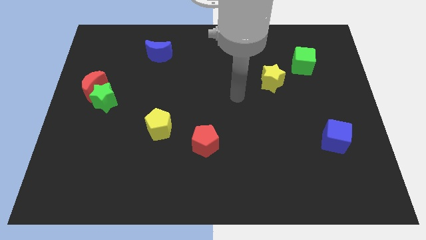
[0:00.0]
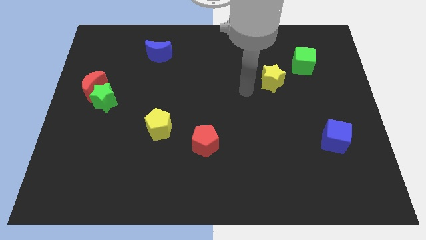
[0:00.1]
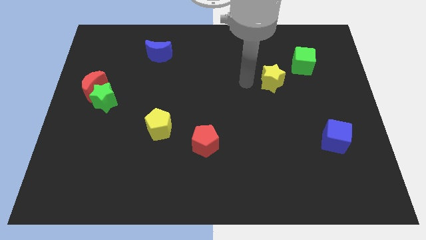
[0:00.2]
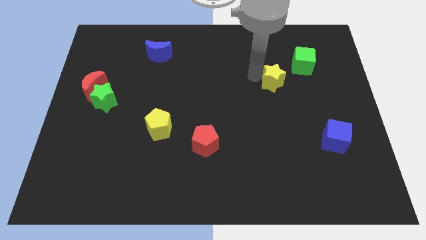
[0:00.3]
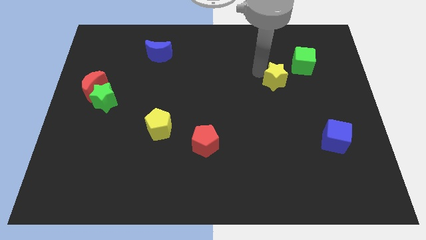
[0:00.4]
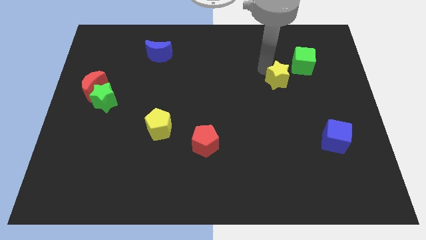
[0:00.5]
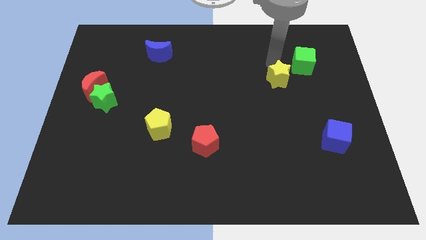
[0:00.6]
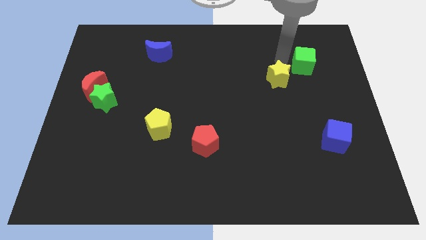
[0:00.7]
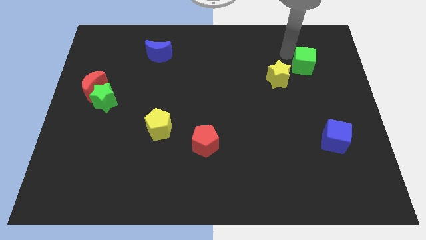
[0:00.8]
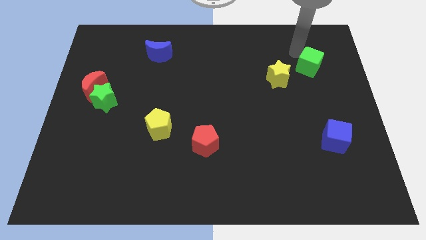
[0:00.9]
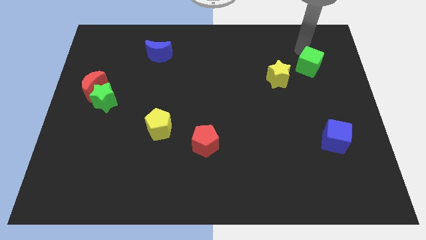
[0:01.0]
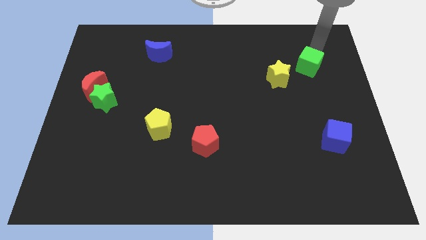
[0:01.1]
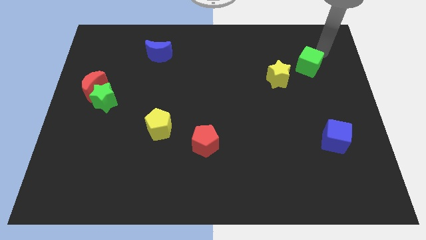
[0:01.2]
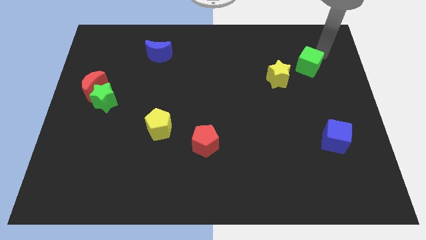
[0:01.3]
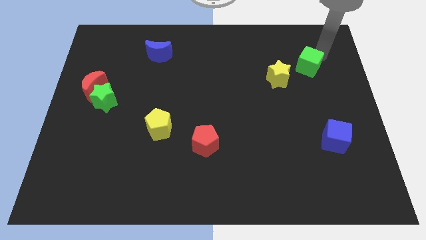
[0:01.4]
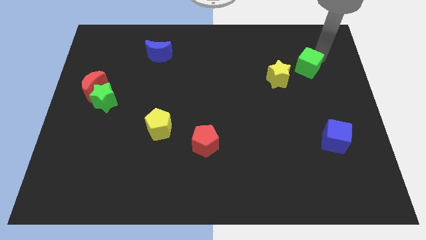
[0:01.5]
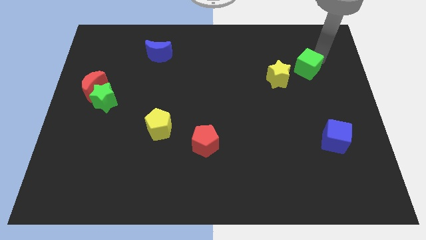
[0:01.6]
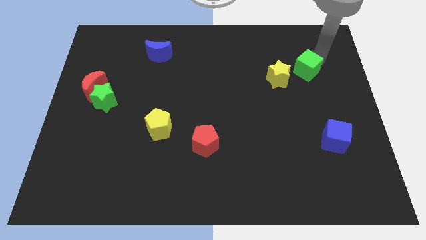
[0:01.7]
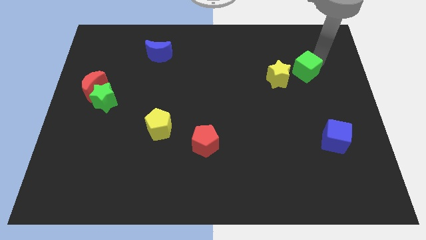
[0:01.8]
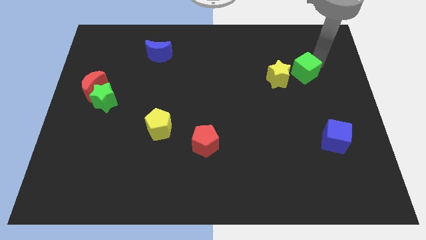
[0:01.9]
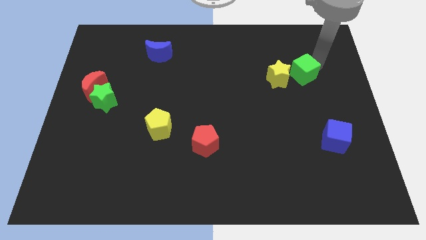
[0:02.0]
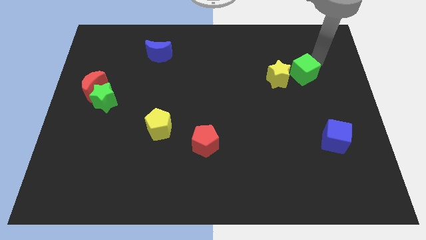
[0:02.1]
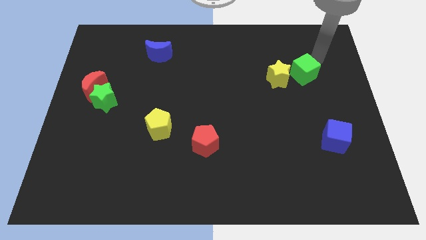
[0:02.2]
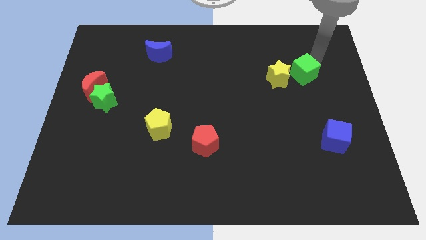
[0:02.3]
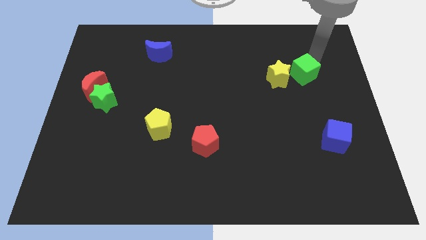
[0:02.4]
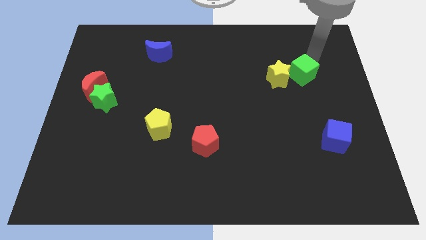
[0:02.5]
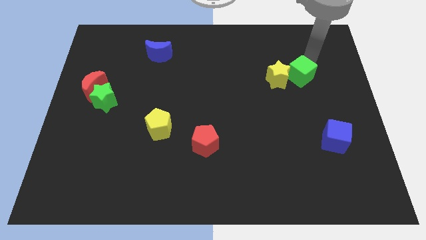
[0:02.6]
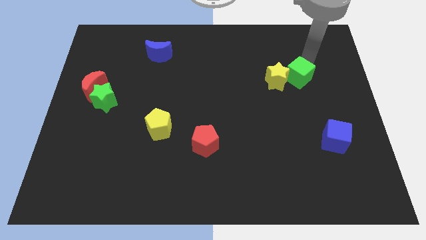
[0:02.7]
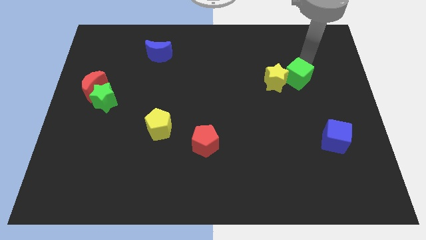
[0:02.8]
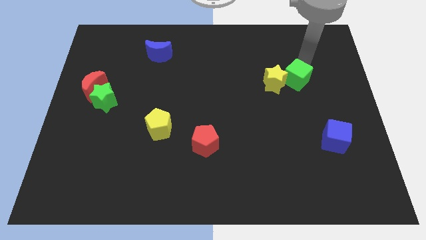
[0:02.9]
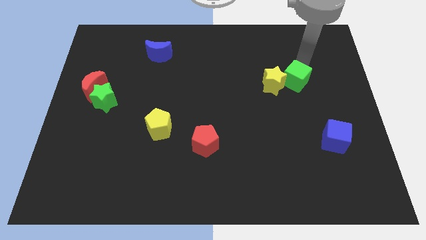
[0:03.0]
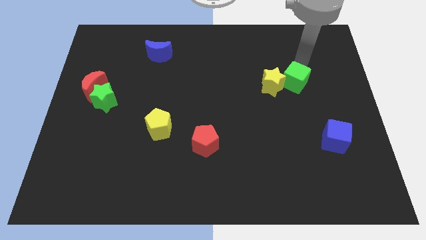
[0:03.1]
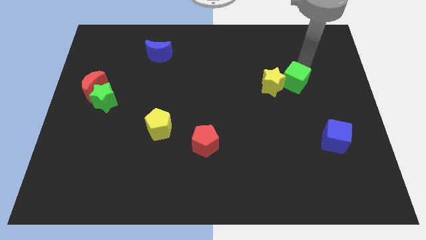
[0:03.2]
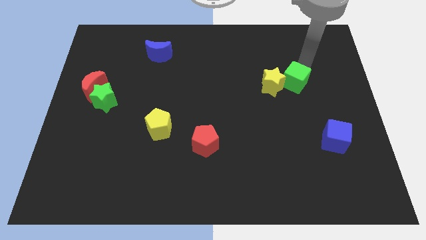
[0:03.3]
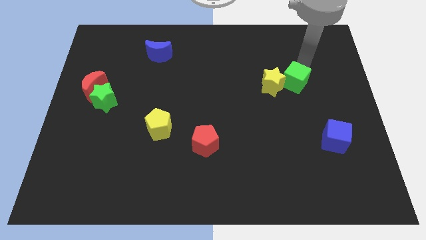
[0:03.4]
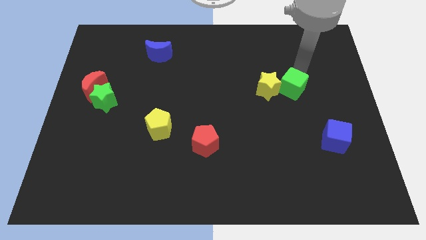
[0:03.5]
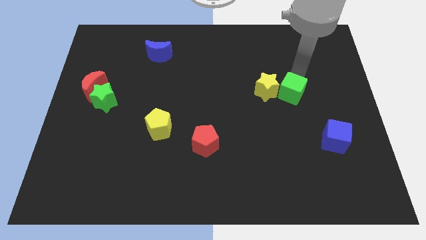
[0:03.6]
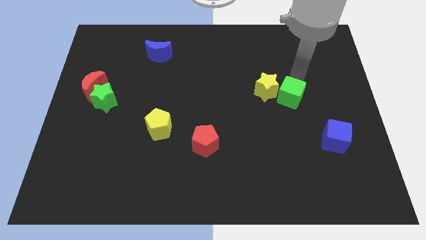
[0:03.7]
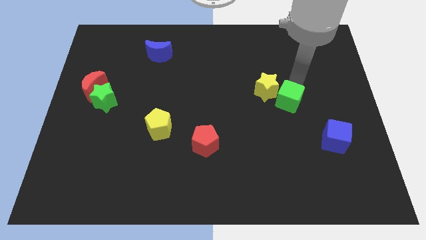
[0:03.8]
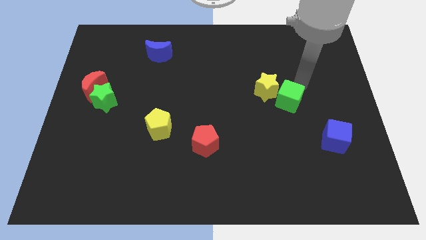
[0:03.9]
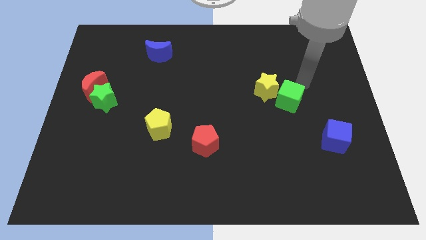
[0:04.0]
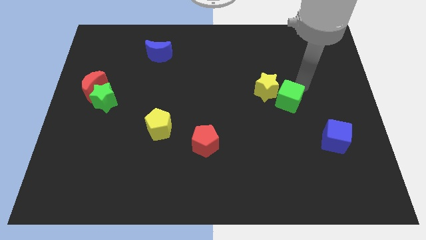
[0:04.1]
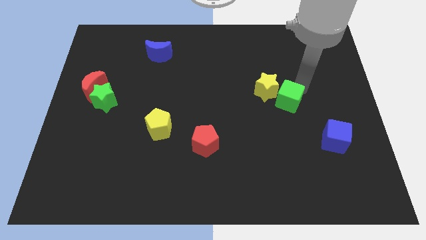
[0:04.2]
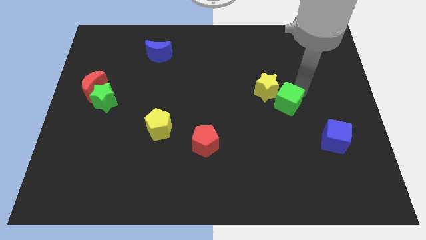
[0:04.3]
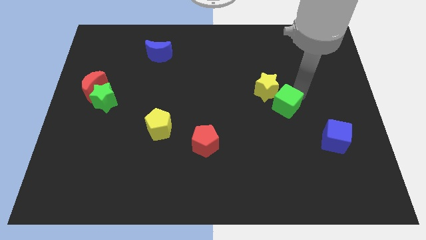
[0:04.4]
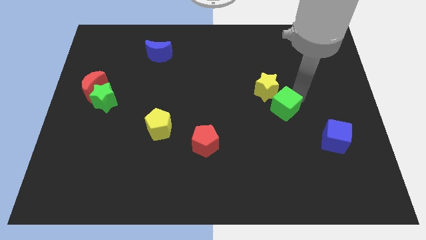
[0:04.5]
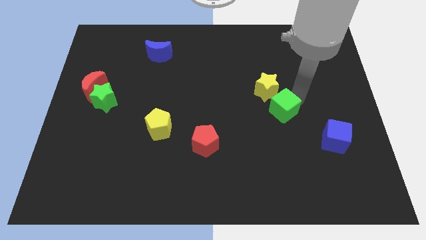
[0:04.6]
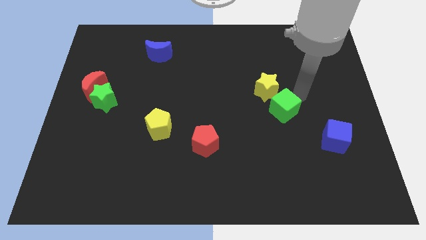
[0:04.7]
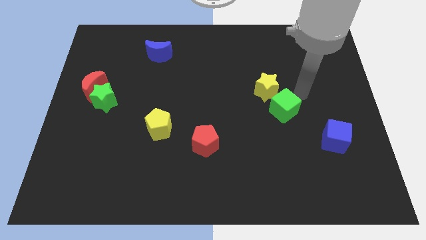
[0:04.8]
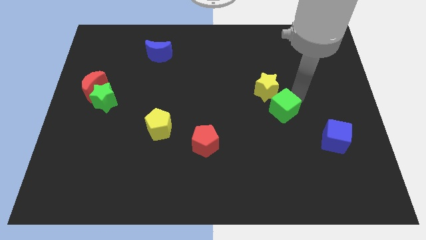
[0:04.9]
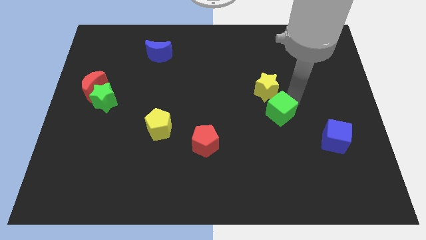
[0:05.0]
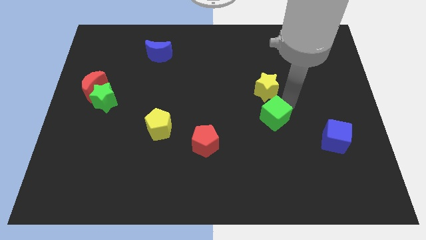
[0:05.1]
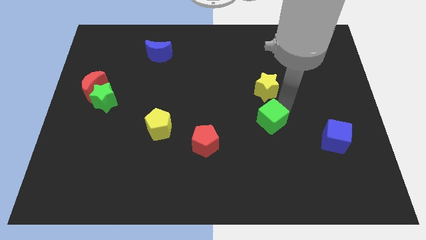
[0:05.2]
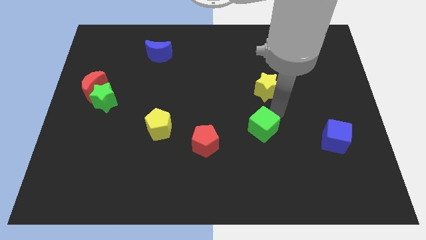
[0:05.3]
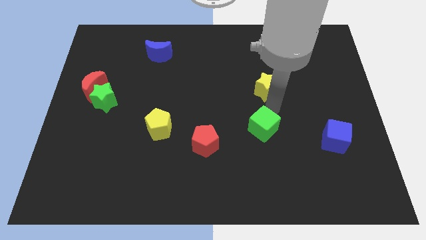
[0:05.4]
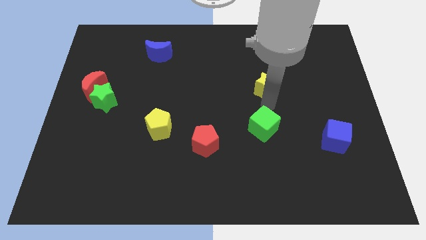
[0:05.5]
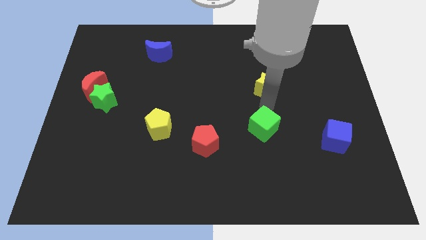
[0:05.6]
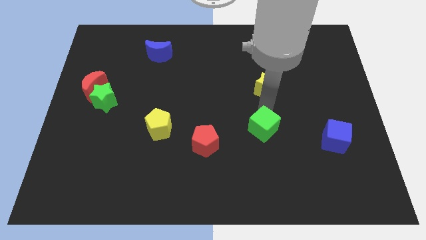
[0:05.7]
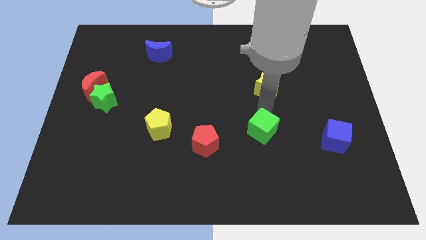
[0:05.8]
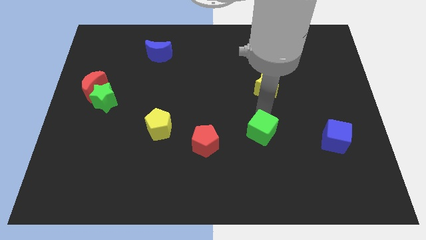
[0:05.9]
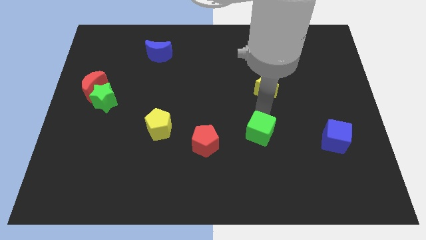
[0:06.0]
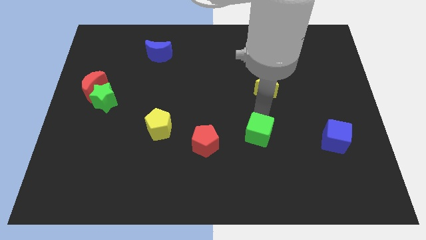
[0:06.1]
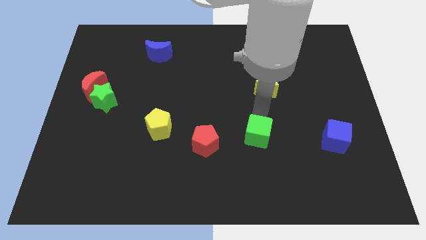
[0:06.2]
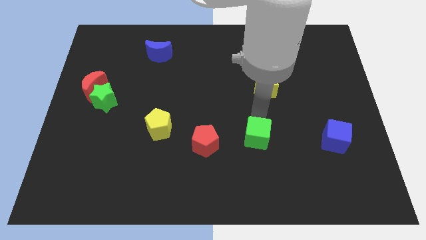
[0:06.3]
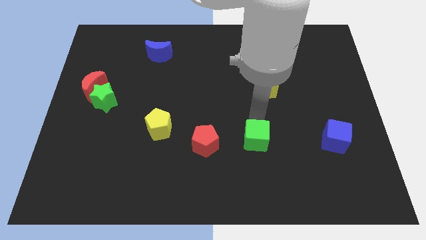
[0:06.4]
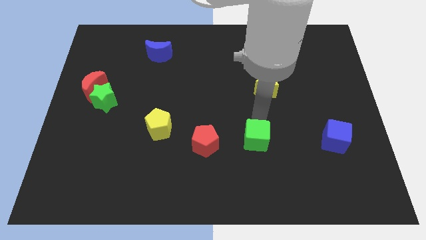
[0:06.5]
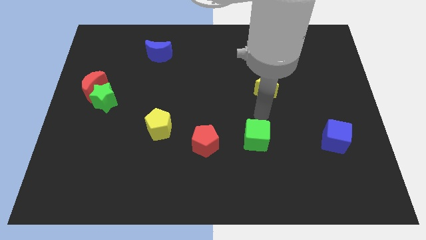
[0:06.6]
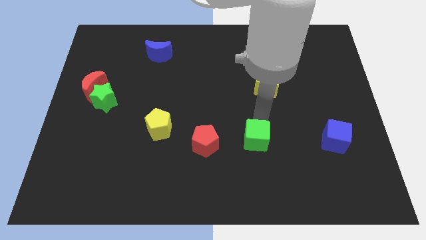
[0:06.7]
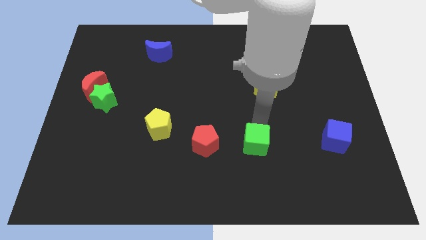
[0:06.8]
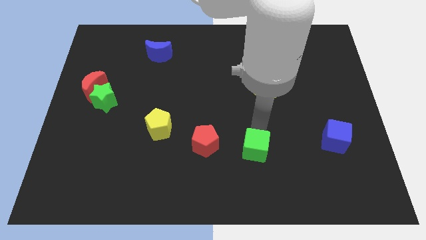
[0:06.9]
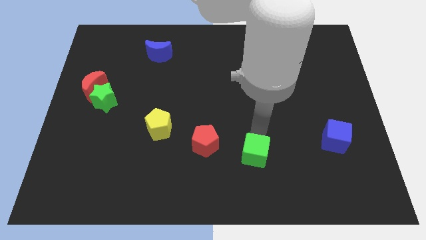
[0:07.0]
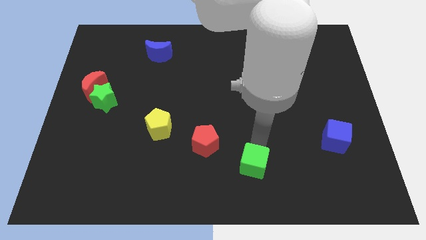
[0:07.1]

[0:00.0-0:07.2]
move the green cube to the bottom

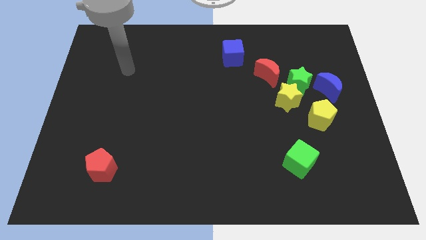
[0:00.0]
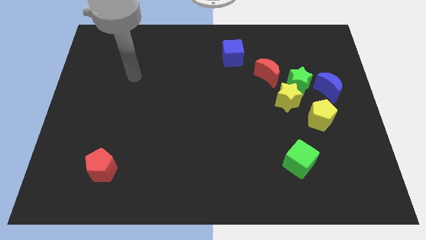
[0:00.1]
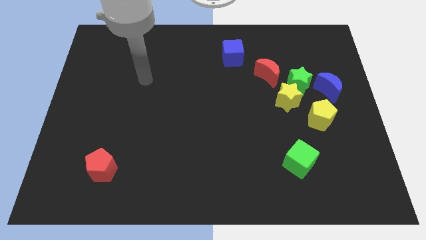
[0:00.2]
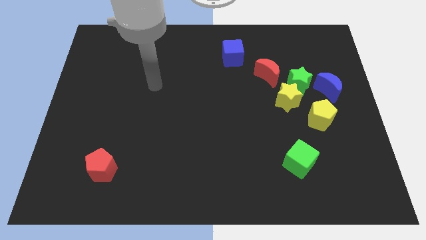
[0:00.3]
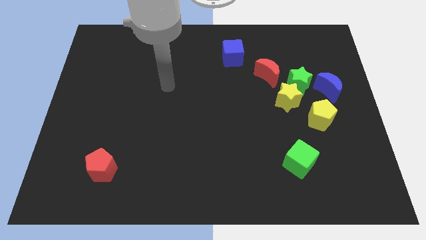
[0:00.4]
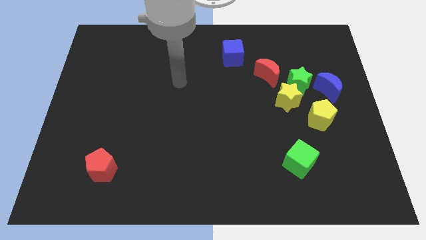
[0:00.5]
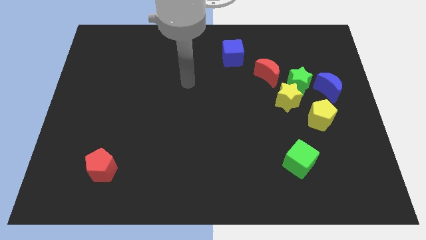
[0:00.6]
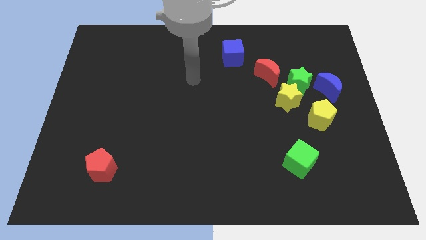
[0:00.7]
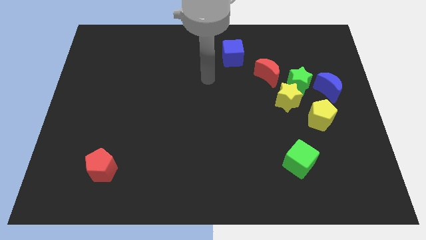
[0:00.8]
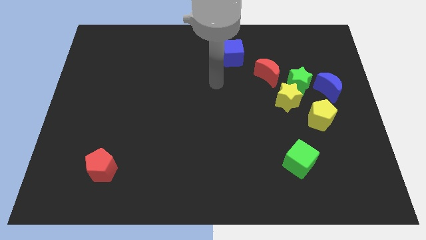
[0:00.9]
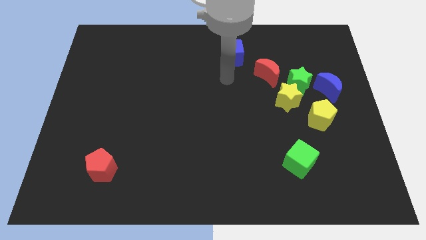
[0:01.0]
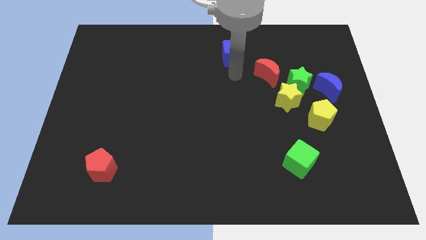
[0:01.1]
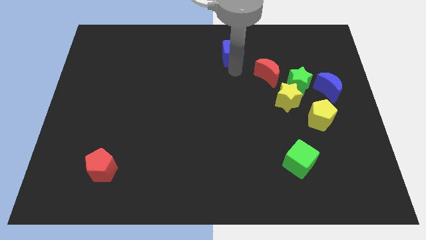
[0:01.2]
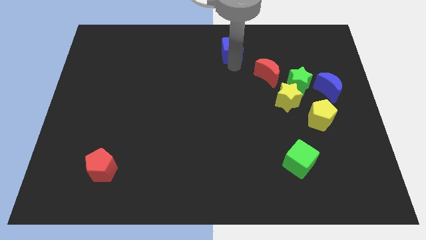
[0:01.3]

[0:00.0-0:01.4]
push the blue cube to the top side
